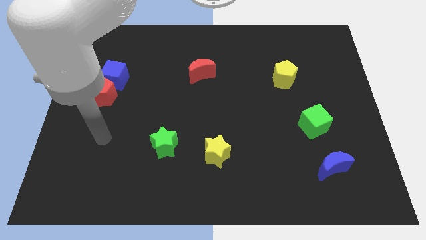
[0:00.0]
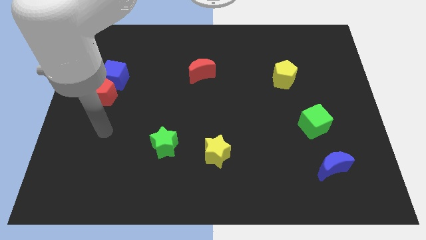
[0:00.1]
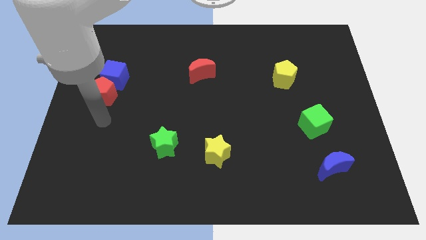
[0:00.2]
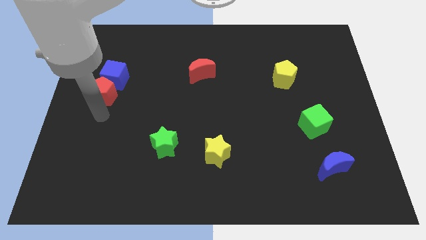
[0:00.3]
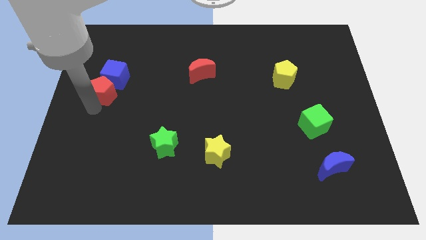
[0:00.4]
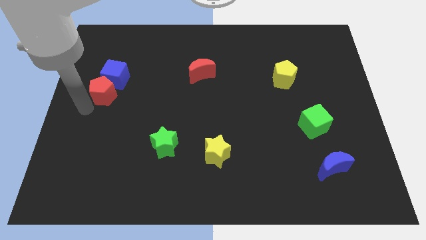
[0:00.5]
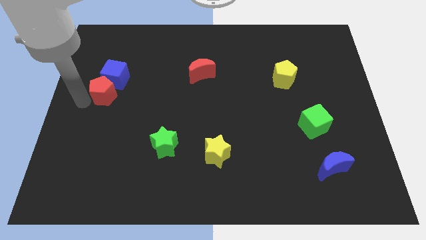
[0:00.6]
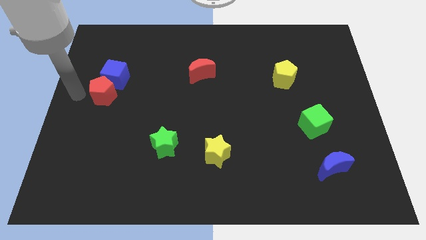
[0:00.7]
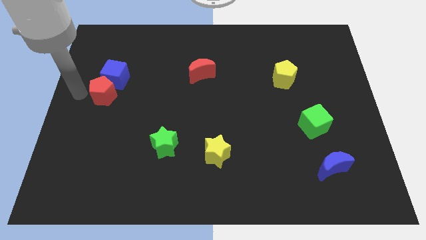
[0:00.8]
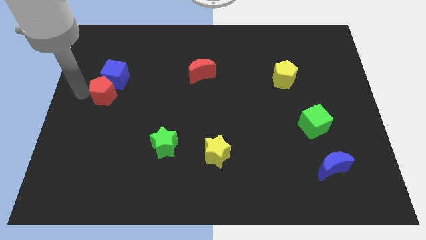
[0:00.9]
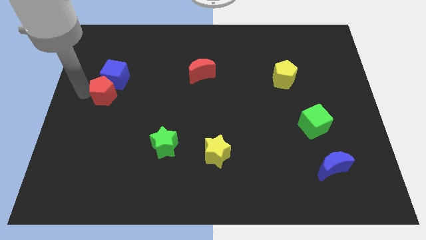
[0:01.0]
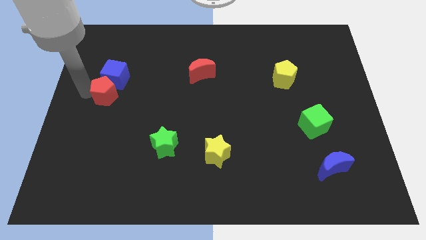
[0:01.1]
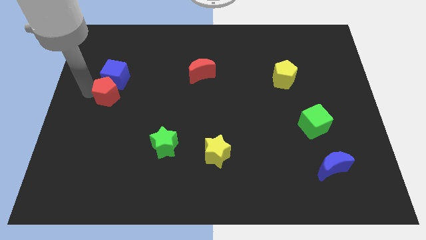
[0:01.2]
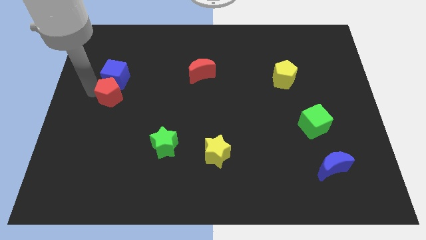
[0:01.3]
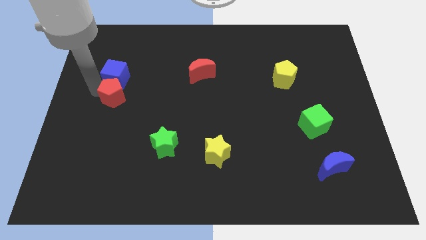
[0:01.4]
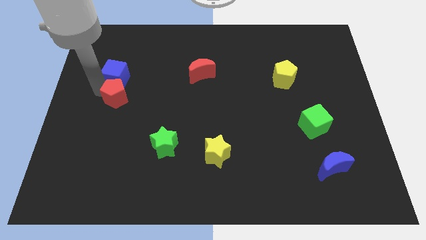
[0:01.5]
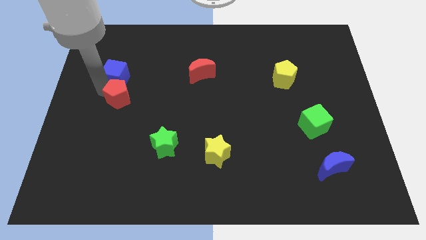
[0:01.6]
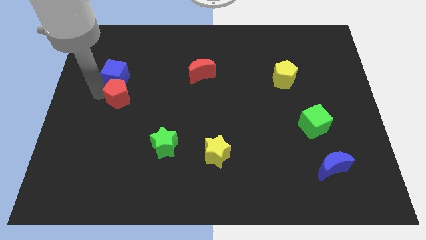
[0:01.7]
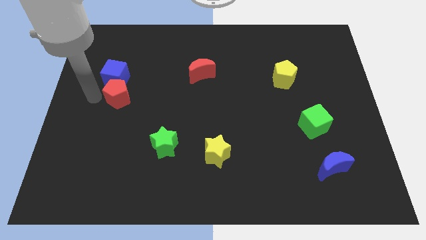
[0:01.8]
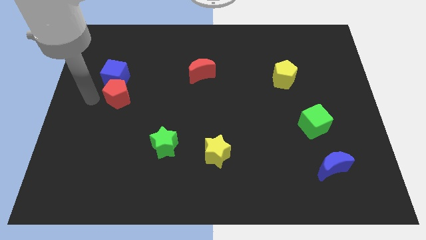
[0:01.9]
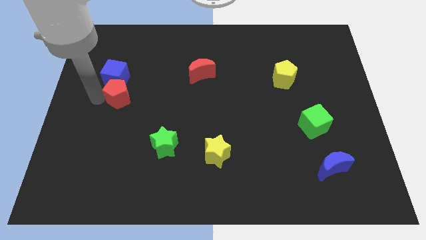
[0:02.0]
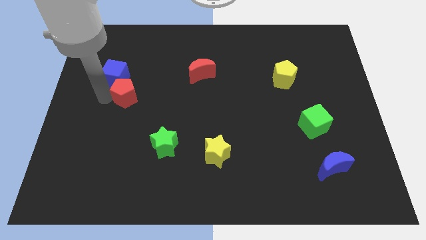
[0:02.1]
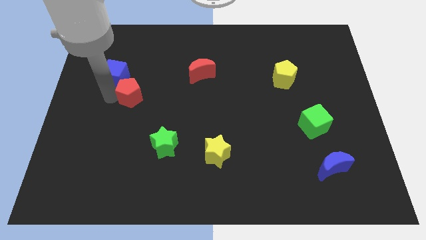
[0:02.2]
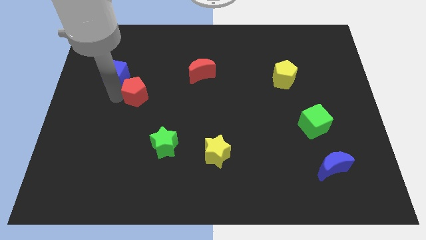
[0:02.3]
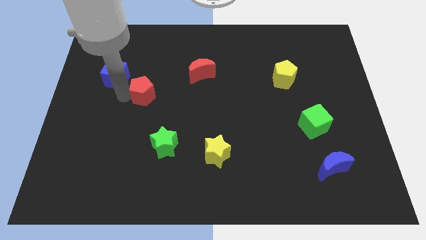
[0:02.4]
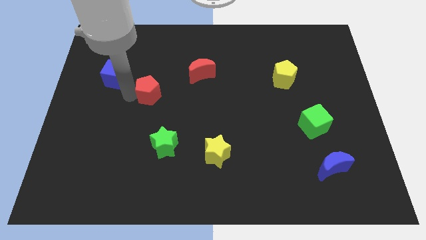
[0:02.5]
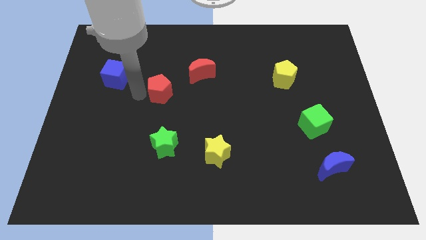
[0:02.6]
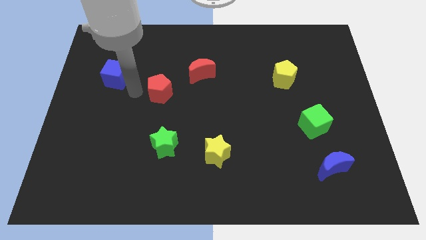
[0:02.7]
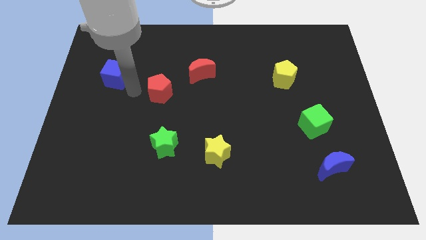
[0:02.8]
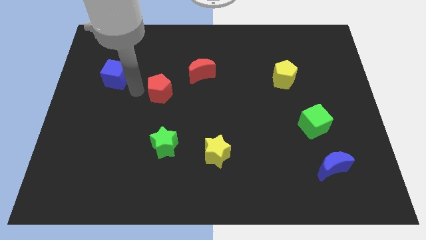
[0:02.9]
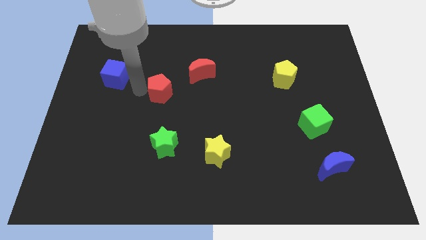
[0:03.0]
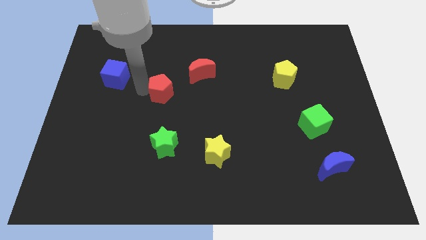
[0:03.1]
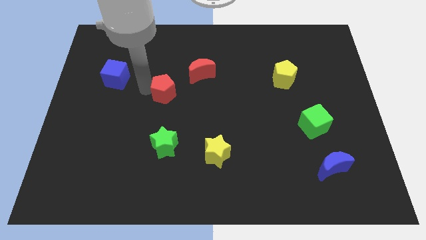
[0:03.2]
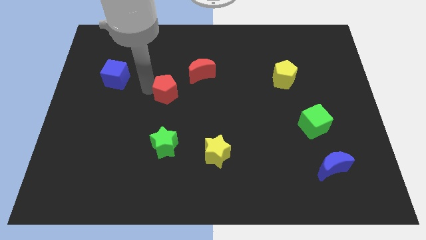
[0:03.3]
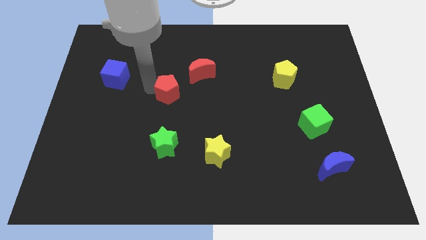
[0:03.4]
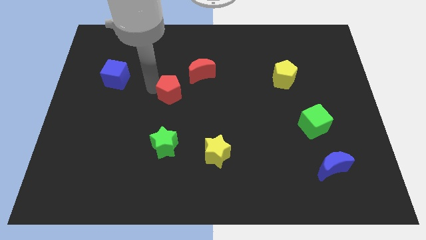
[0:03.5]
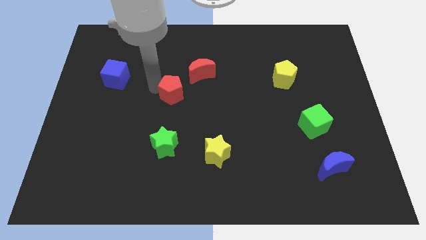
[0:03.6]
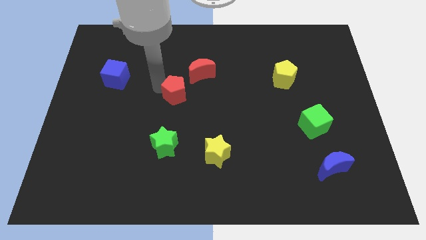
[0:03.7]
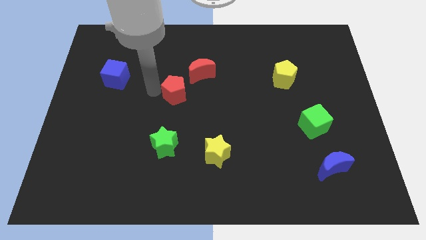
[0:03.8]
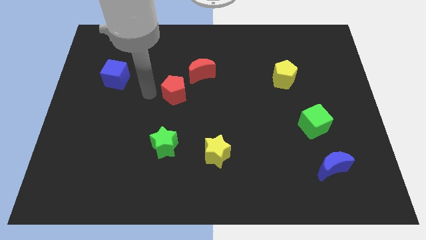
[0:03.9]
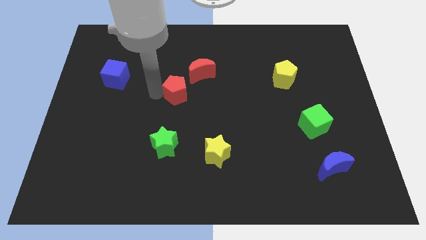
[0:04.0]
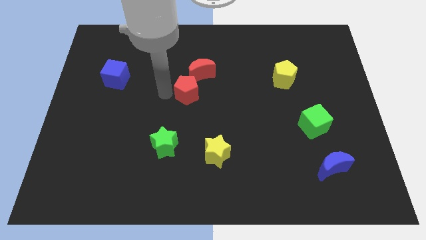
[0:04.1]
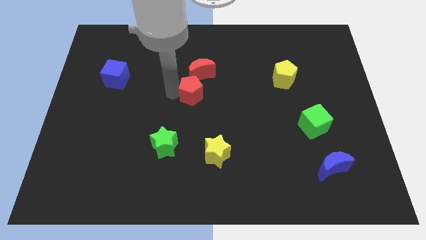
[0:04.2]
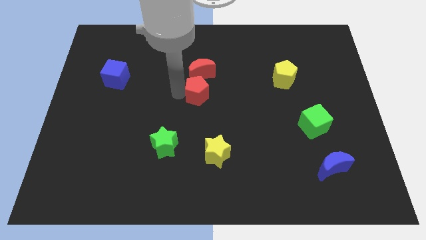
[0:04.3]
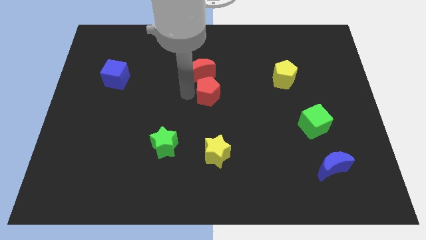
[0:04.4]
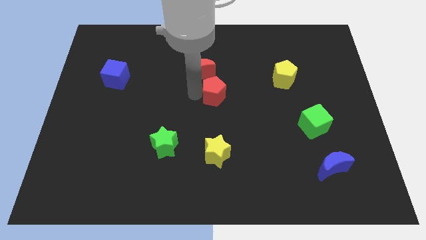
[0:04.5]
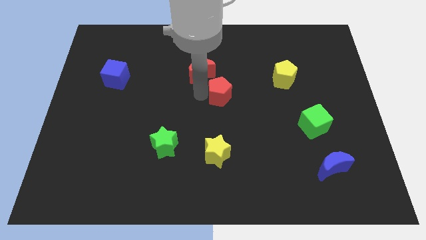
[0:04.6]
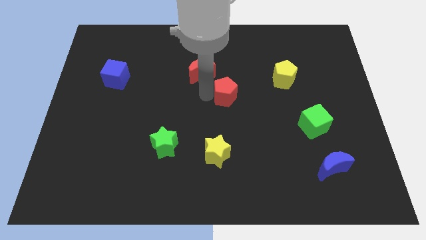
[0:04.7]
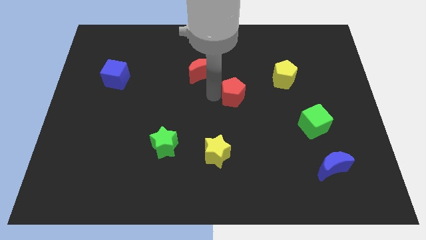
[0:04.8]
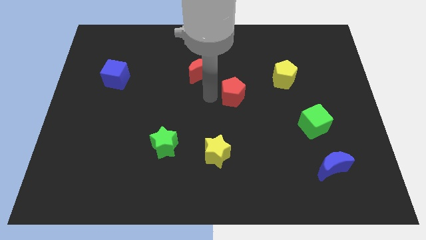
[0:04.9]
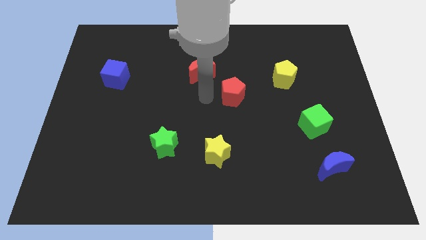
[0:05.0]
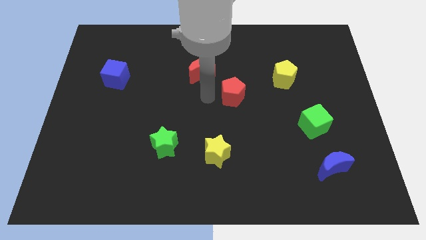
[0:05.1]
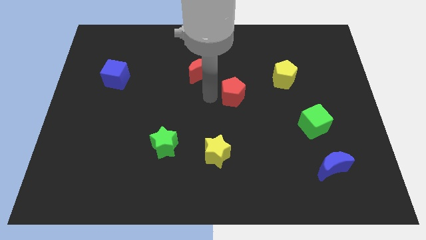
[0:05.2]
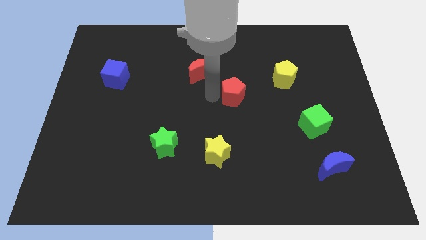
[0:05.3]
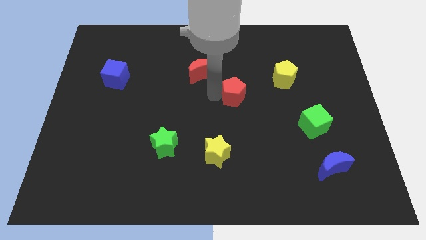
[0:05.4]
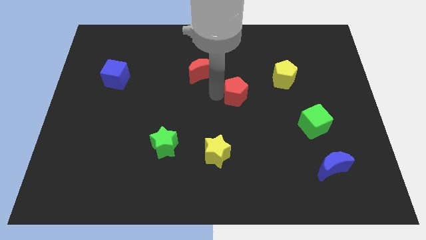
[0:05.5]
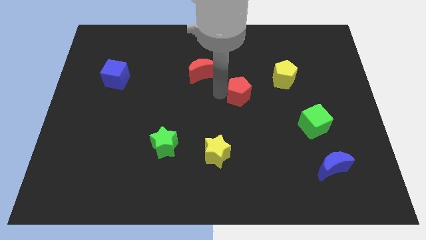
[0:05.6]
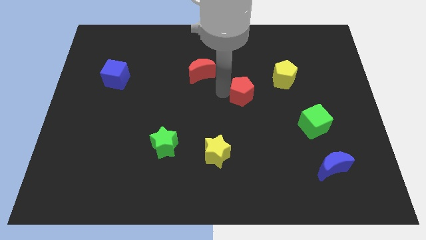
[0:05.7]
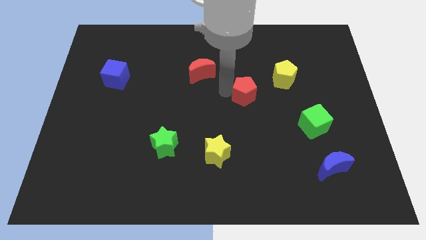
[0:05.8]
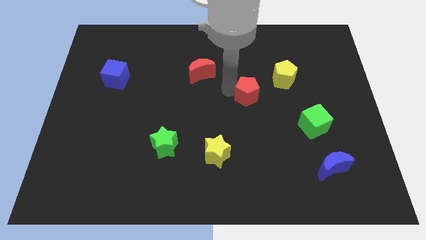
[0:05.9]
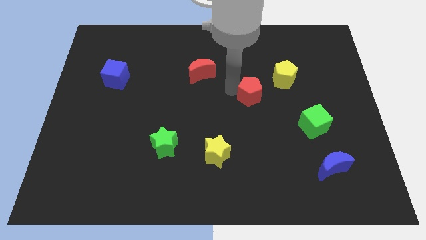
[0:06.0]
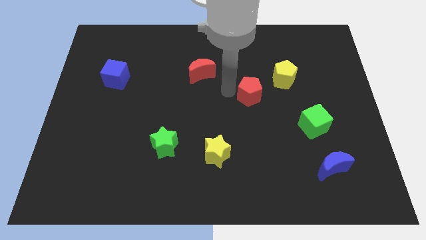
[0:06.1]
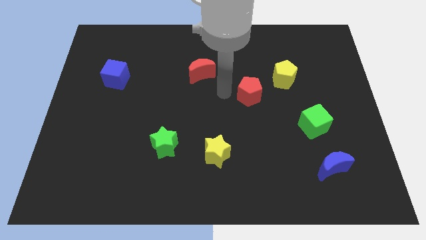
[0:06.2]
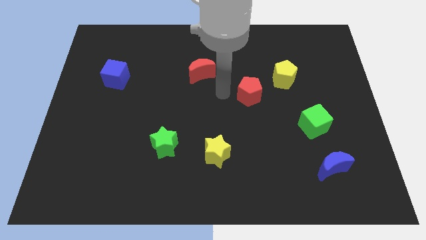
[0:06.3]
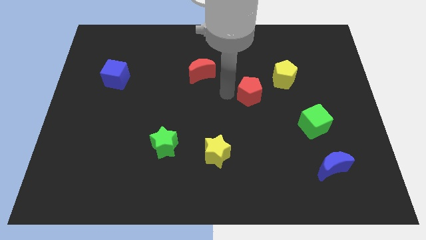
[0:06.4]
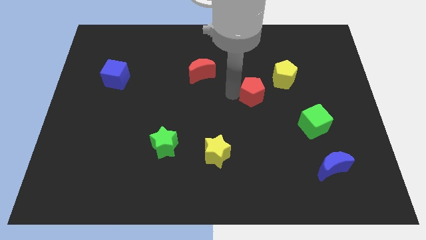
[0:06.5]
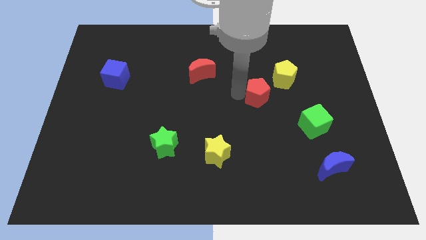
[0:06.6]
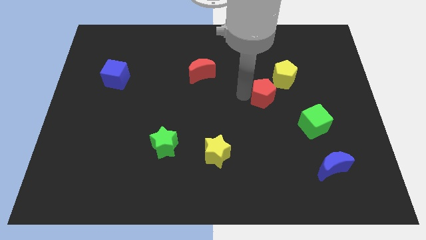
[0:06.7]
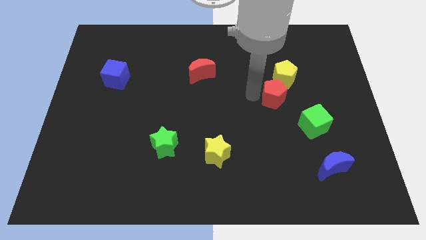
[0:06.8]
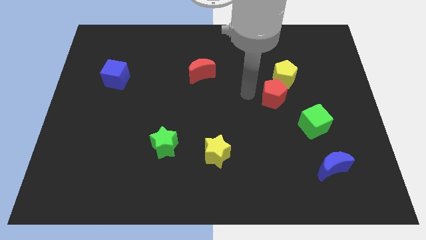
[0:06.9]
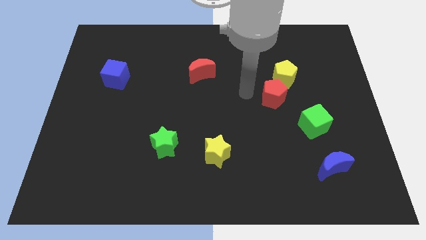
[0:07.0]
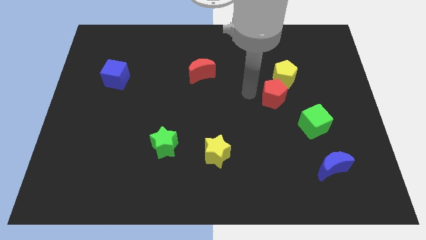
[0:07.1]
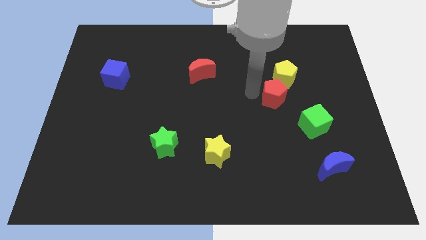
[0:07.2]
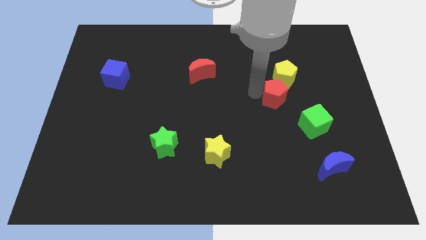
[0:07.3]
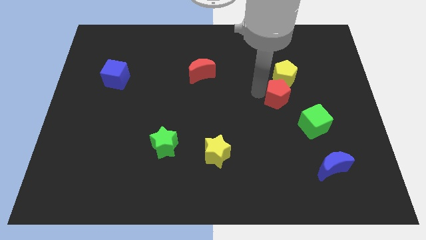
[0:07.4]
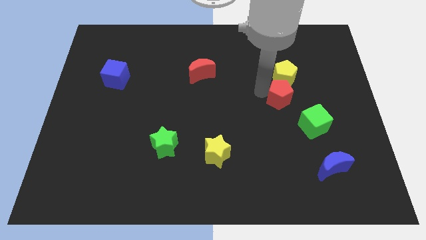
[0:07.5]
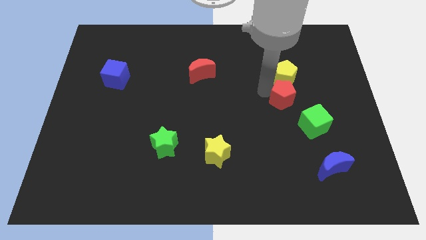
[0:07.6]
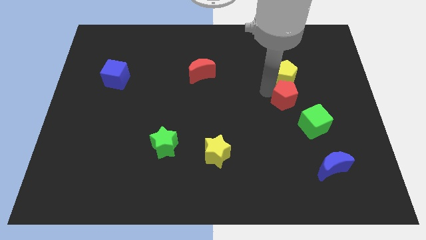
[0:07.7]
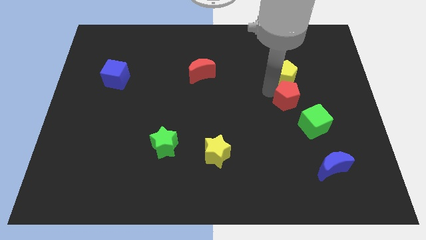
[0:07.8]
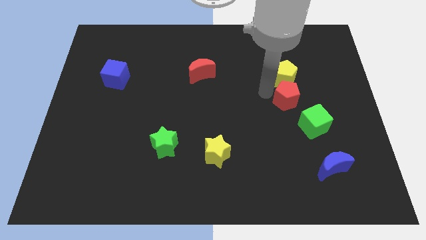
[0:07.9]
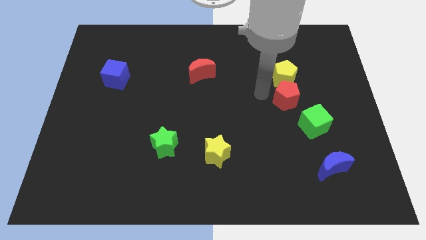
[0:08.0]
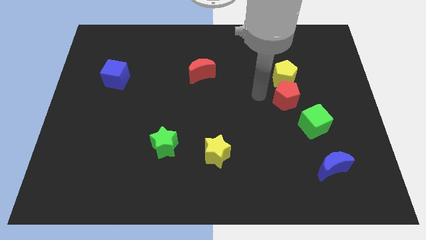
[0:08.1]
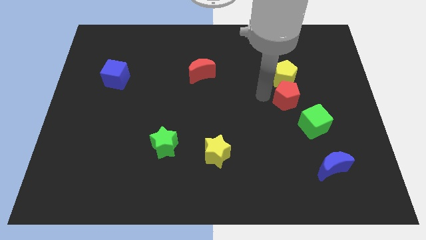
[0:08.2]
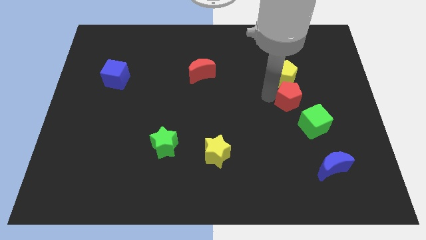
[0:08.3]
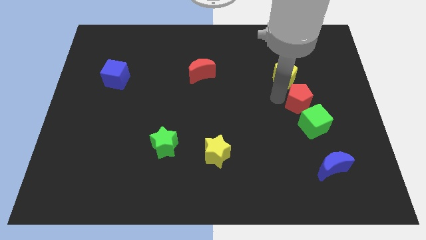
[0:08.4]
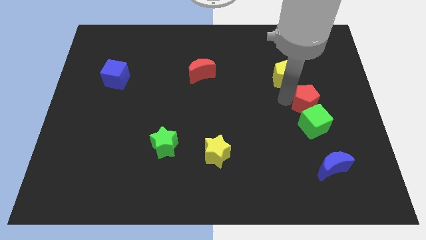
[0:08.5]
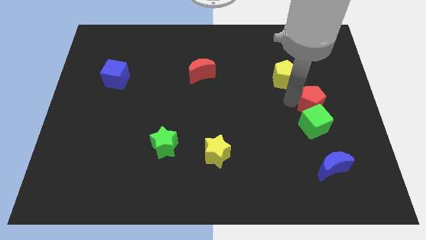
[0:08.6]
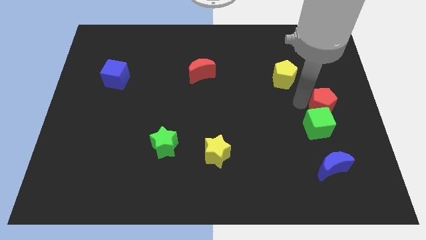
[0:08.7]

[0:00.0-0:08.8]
push the red pentagon to the right side of the board
